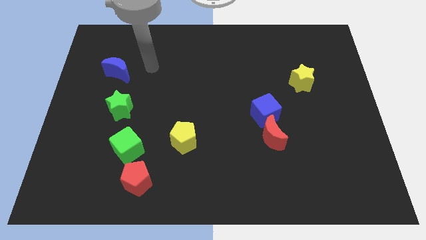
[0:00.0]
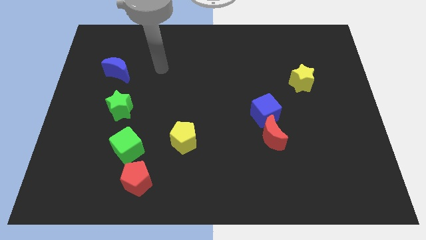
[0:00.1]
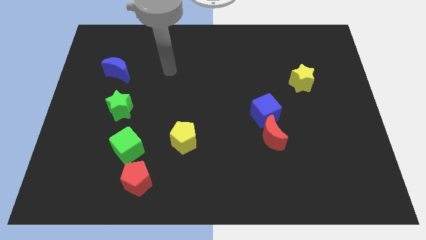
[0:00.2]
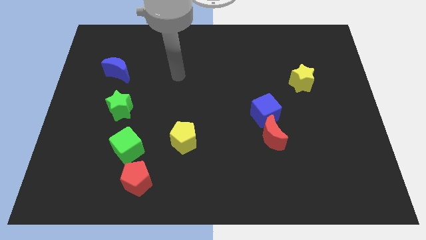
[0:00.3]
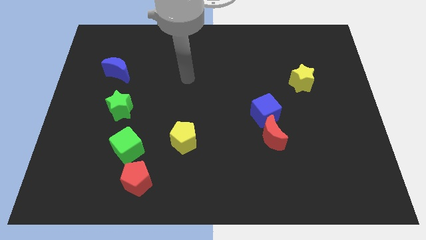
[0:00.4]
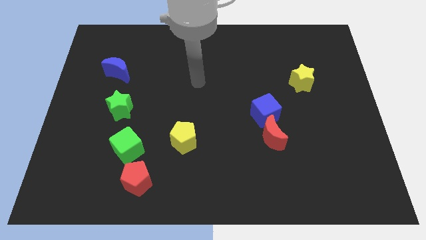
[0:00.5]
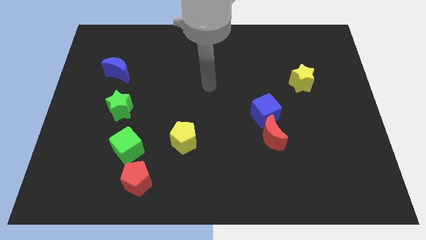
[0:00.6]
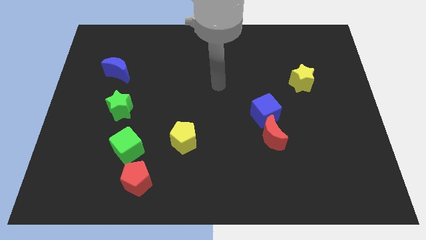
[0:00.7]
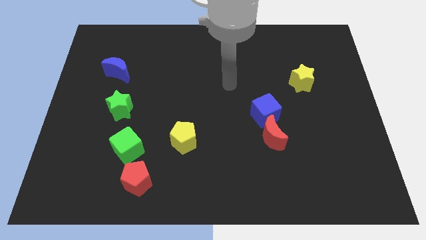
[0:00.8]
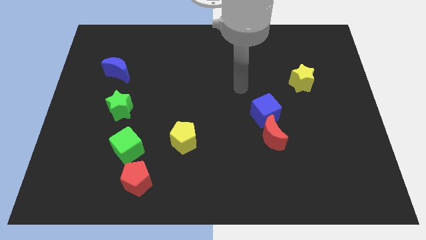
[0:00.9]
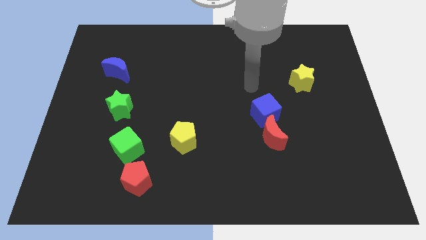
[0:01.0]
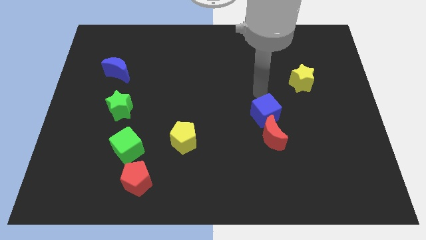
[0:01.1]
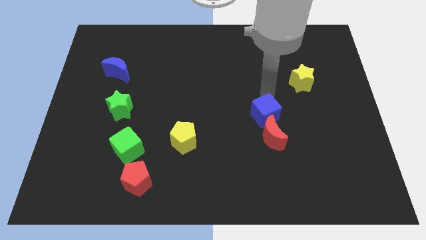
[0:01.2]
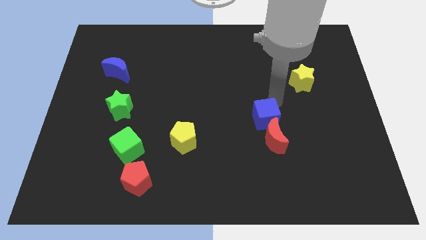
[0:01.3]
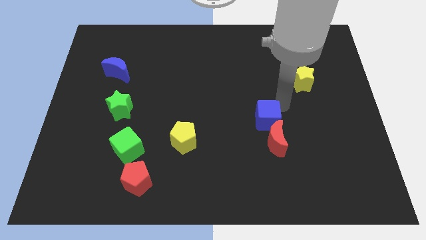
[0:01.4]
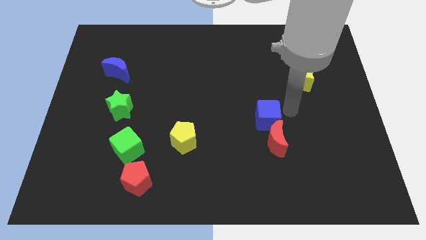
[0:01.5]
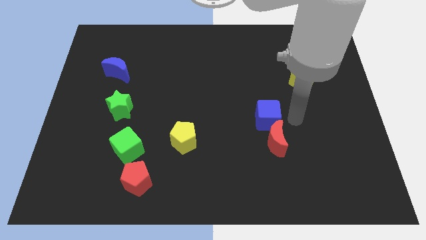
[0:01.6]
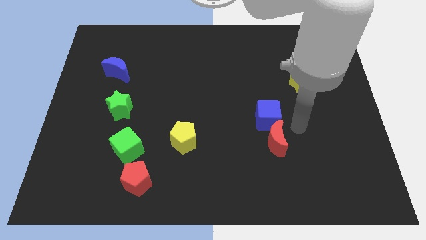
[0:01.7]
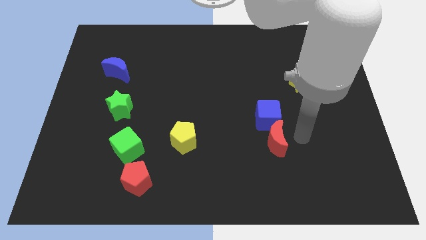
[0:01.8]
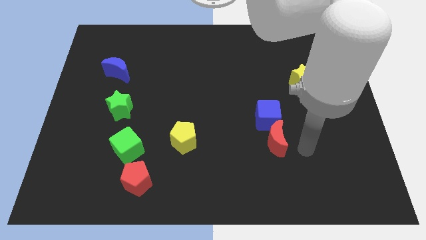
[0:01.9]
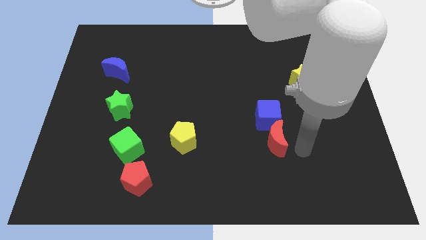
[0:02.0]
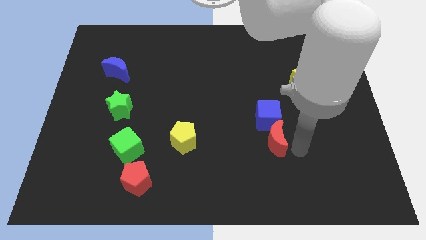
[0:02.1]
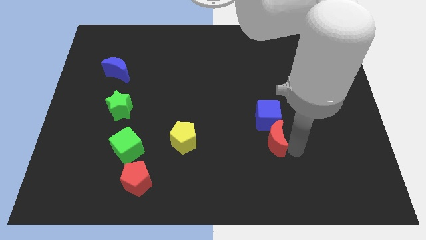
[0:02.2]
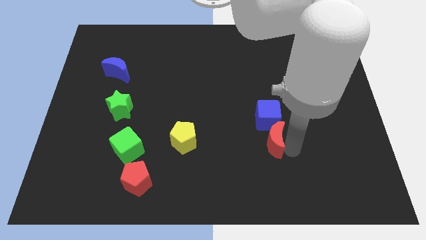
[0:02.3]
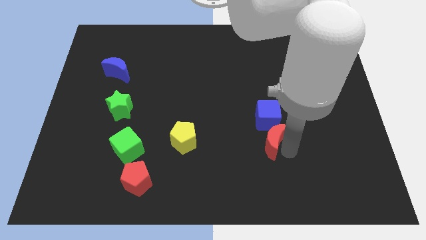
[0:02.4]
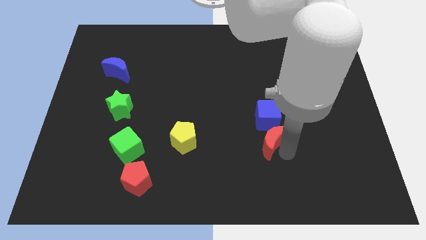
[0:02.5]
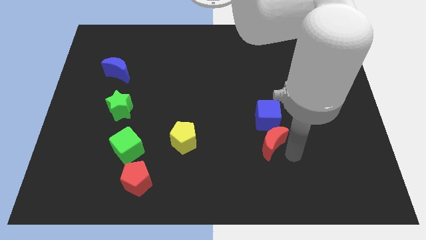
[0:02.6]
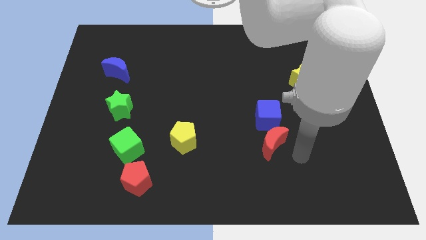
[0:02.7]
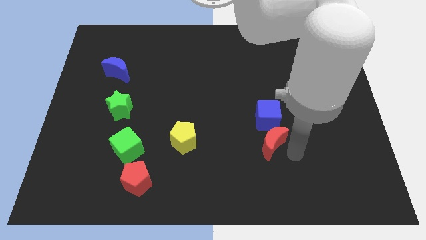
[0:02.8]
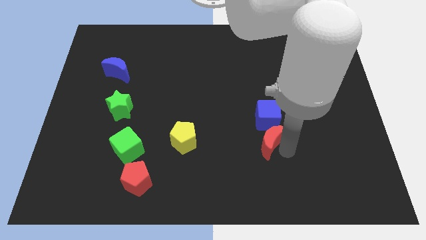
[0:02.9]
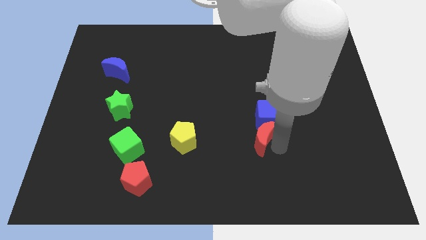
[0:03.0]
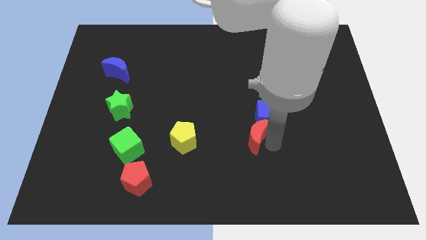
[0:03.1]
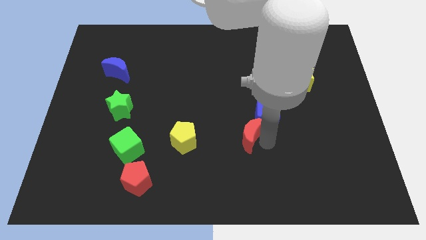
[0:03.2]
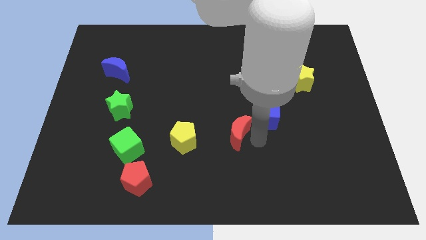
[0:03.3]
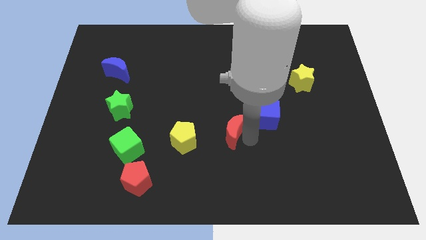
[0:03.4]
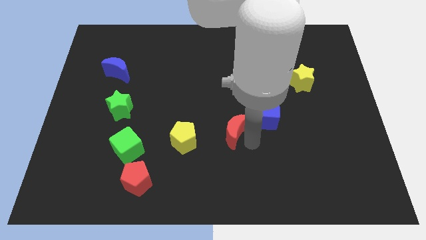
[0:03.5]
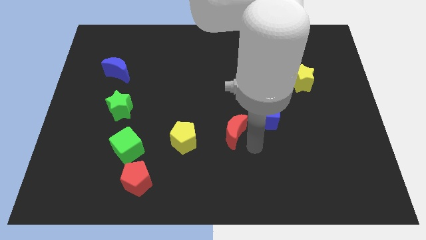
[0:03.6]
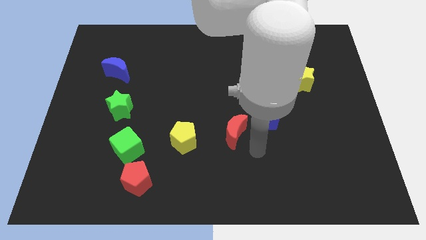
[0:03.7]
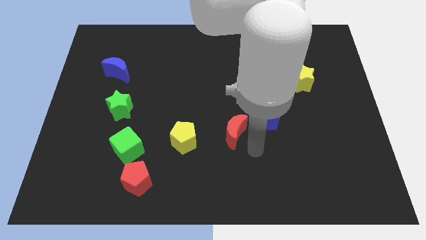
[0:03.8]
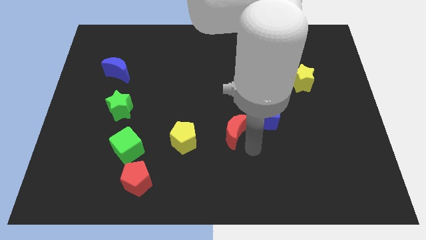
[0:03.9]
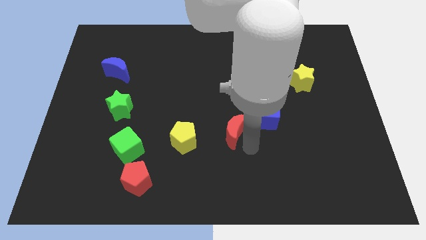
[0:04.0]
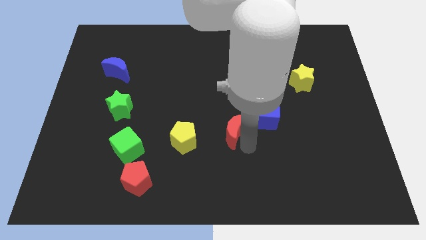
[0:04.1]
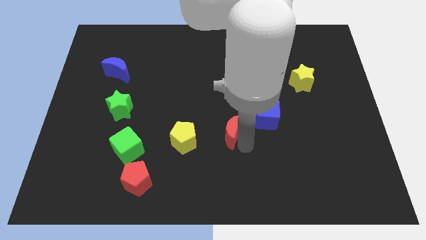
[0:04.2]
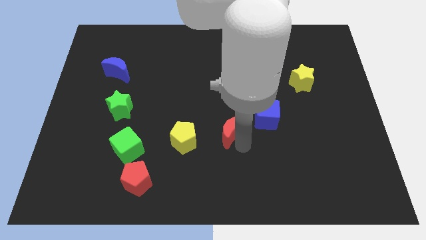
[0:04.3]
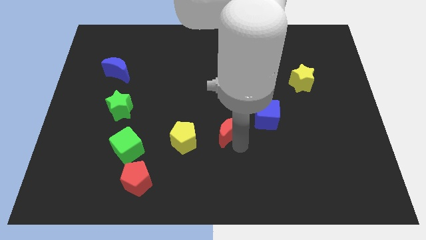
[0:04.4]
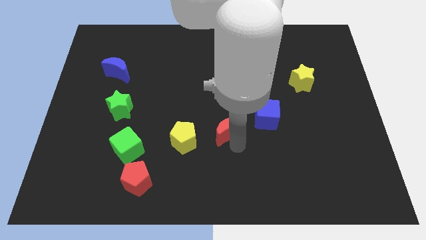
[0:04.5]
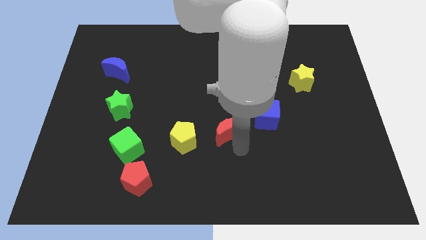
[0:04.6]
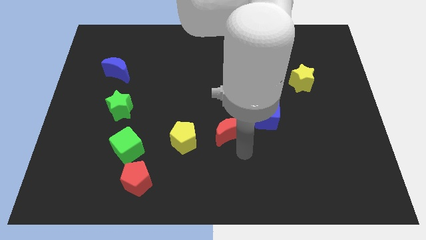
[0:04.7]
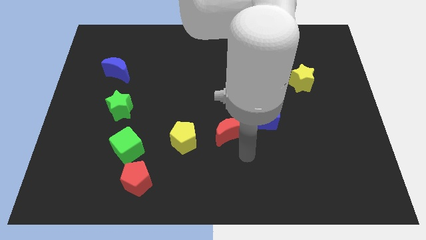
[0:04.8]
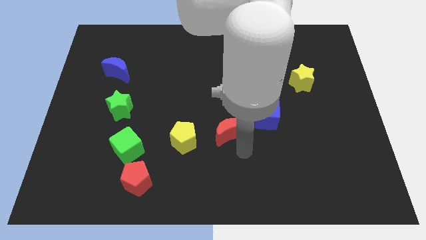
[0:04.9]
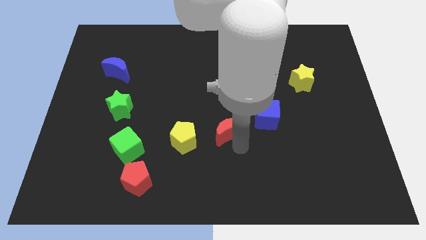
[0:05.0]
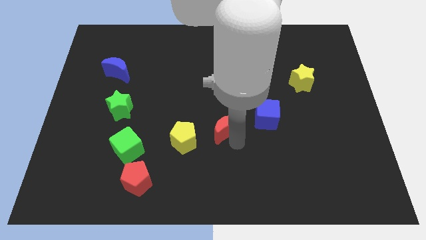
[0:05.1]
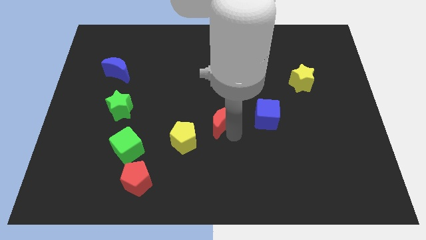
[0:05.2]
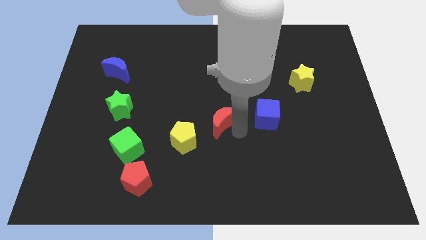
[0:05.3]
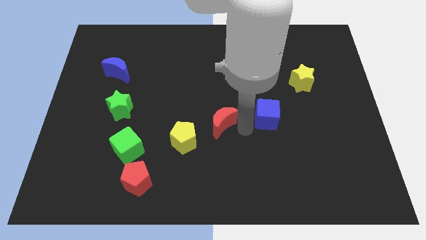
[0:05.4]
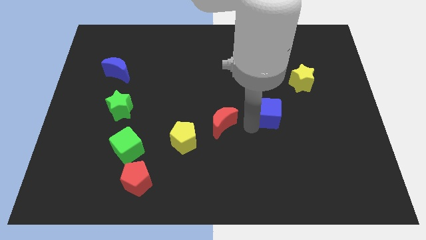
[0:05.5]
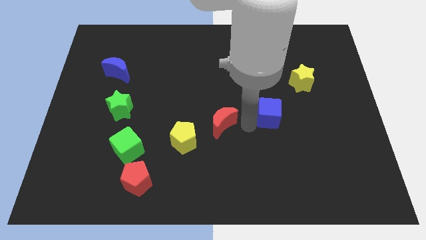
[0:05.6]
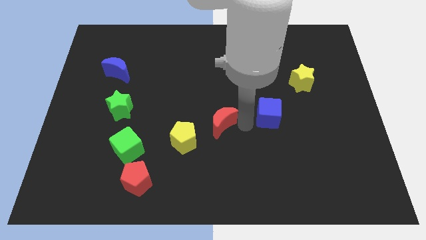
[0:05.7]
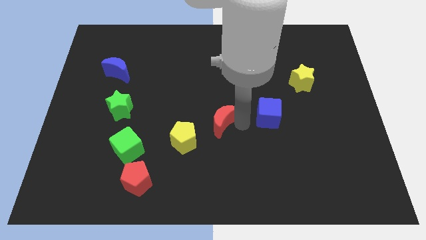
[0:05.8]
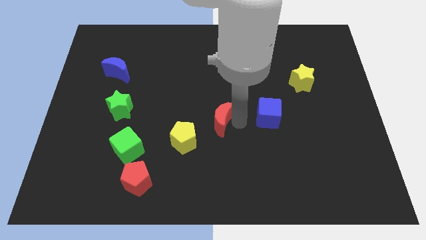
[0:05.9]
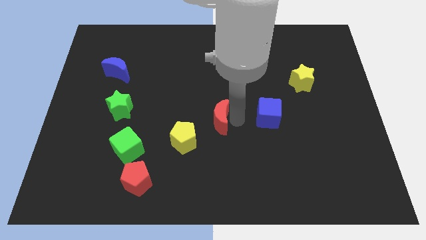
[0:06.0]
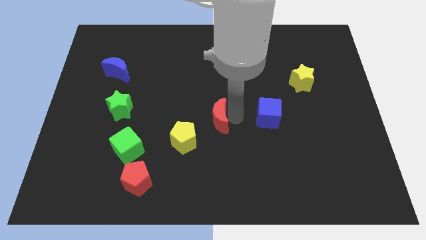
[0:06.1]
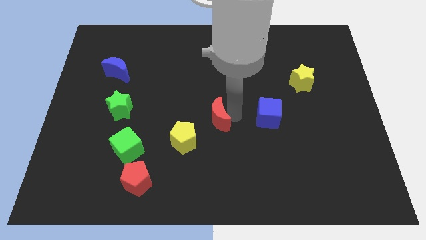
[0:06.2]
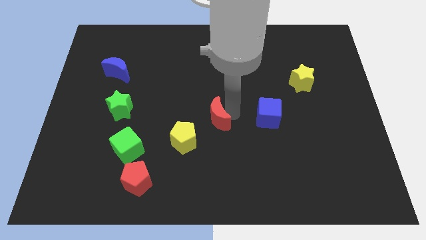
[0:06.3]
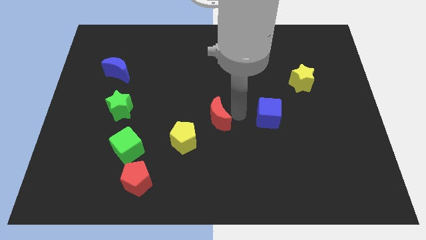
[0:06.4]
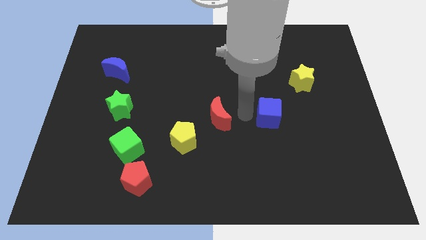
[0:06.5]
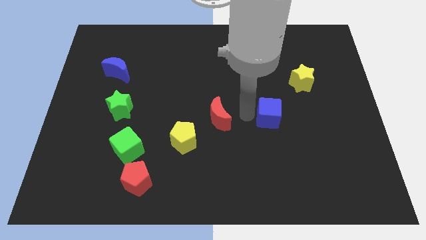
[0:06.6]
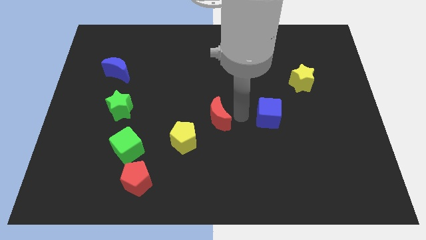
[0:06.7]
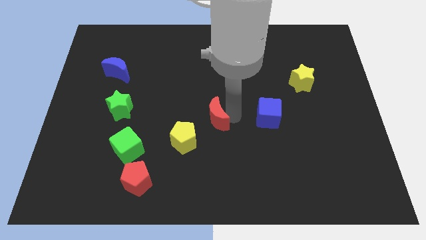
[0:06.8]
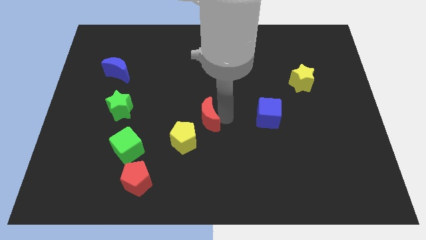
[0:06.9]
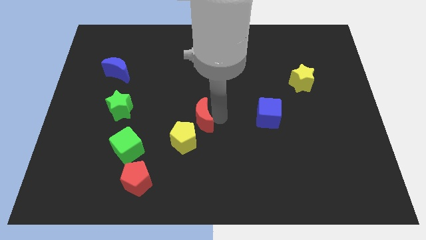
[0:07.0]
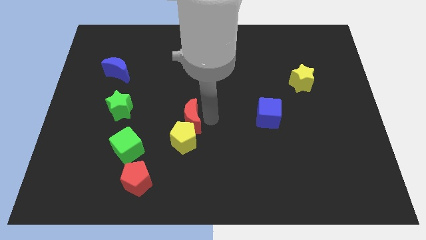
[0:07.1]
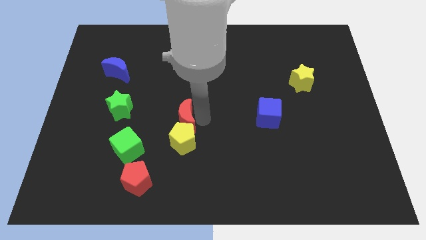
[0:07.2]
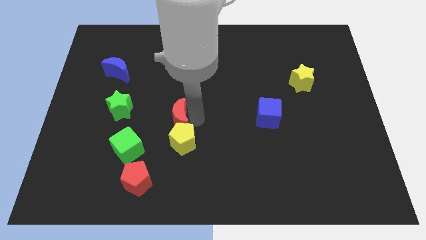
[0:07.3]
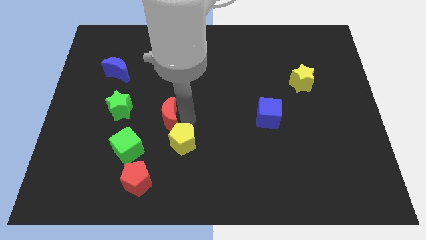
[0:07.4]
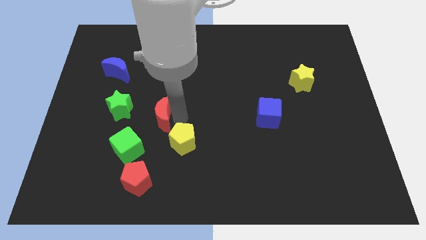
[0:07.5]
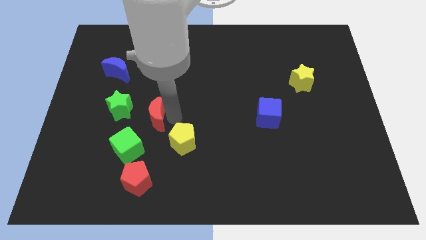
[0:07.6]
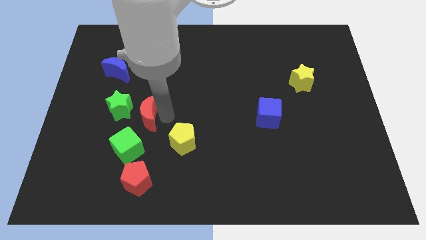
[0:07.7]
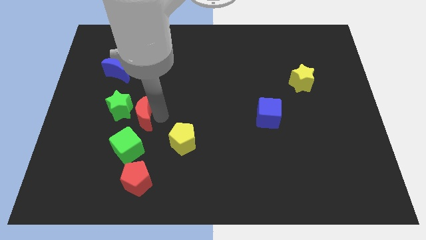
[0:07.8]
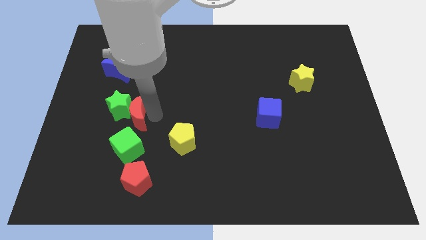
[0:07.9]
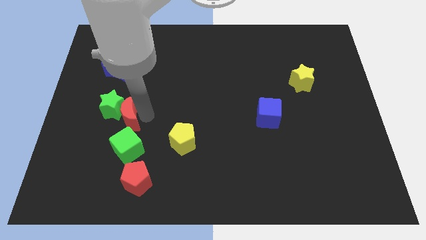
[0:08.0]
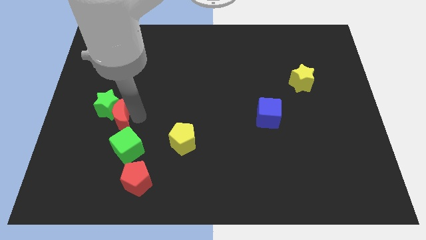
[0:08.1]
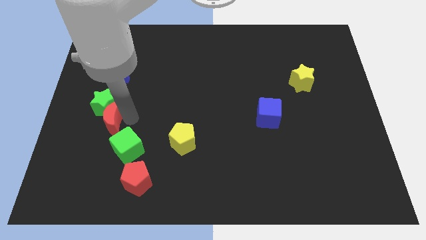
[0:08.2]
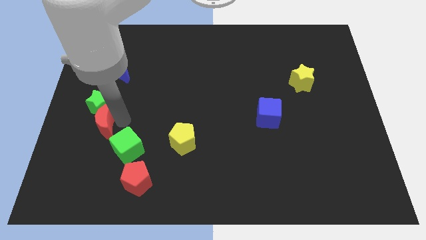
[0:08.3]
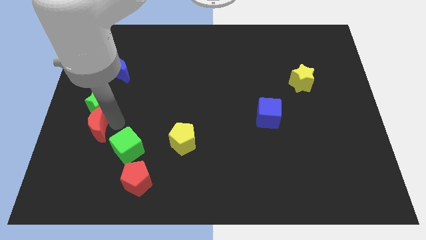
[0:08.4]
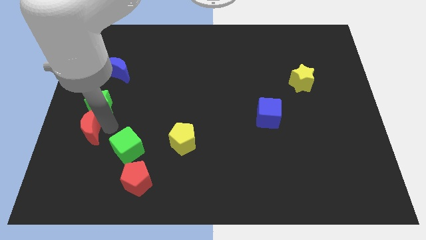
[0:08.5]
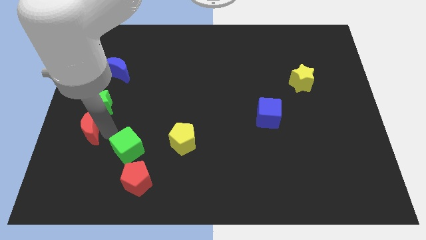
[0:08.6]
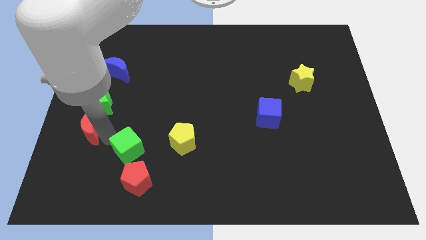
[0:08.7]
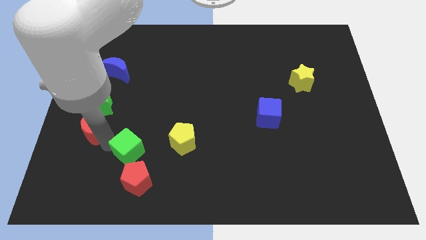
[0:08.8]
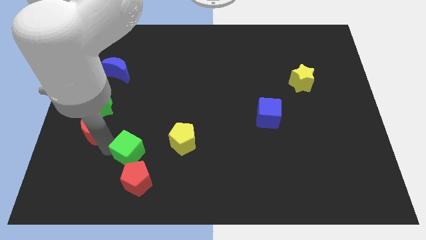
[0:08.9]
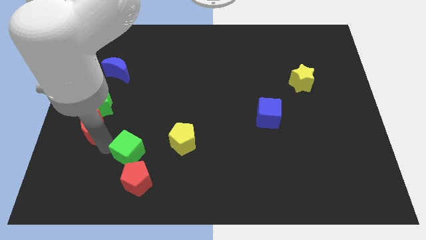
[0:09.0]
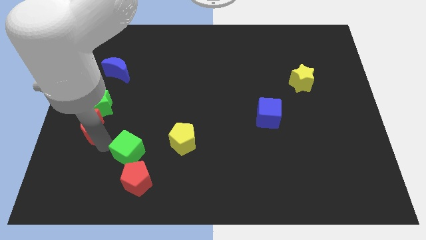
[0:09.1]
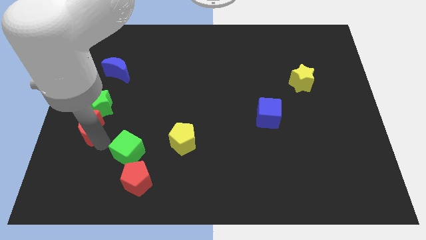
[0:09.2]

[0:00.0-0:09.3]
push the red moon to the left side of the board
